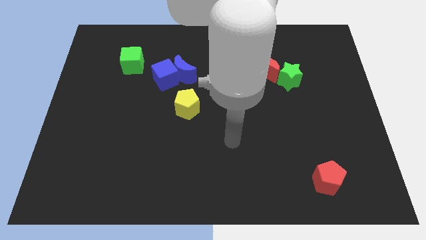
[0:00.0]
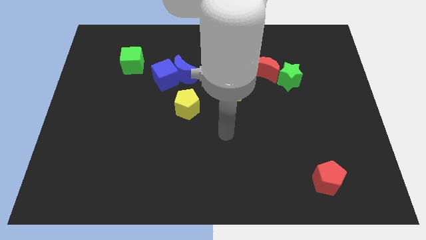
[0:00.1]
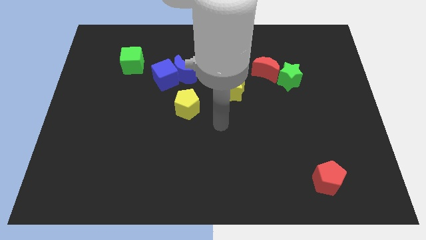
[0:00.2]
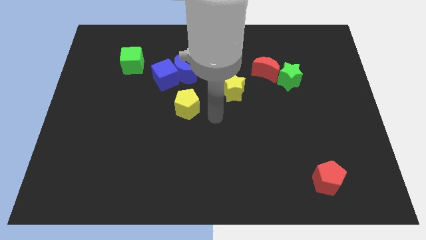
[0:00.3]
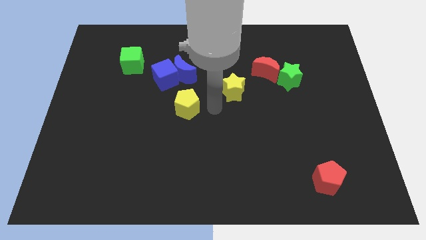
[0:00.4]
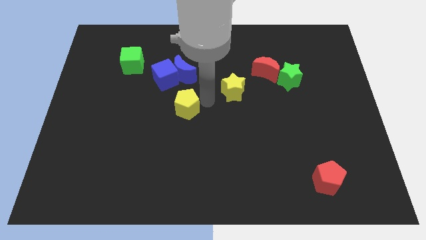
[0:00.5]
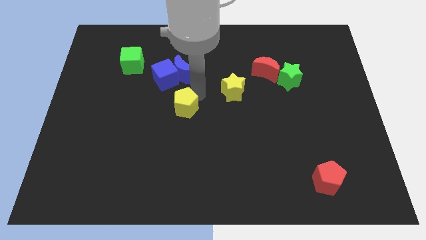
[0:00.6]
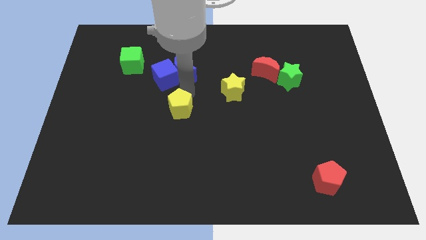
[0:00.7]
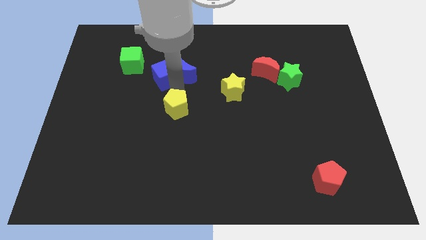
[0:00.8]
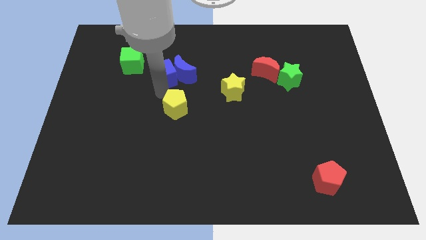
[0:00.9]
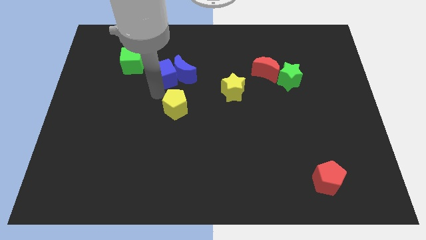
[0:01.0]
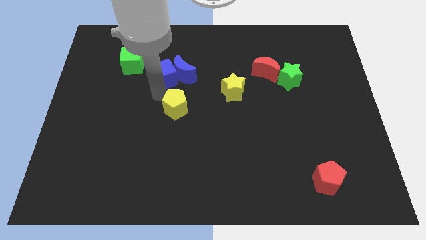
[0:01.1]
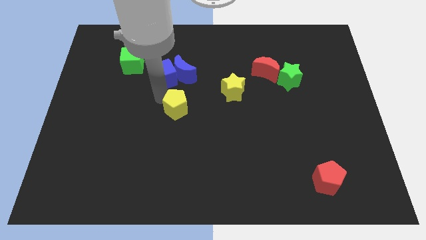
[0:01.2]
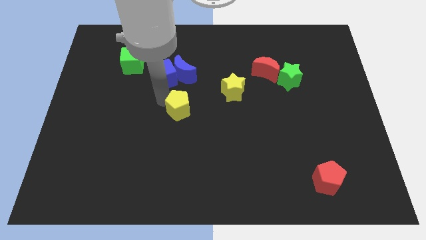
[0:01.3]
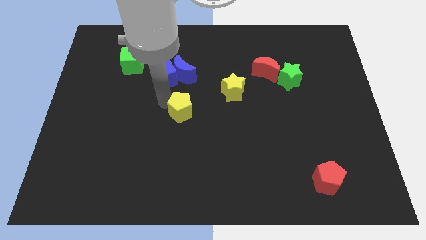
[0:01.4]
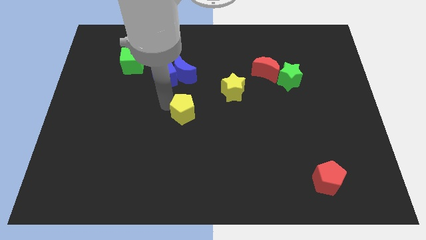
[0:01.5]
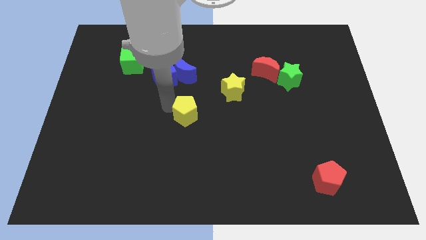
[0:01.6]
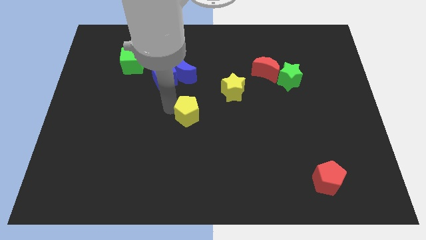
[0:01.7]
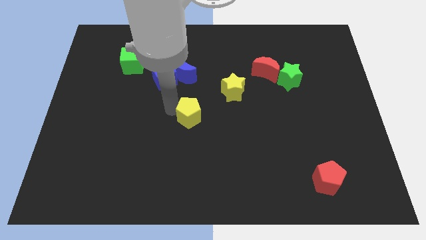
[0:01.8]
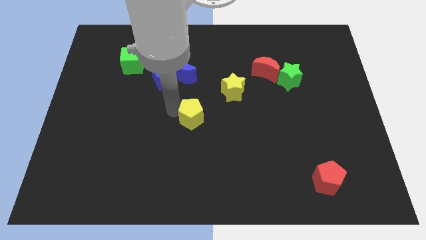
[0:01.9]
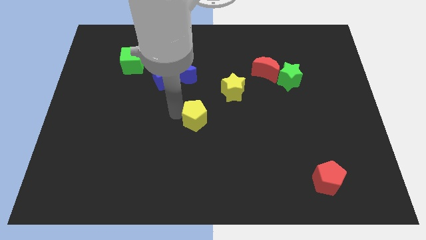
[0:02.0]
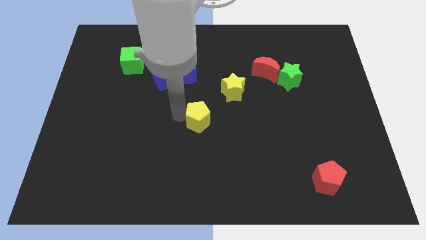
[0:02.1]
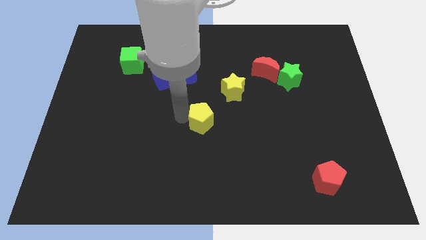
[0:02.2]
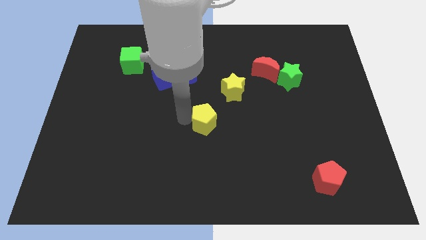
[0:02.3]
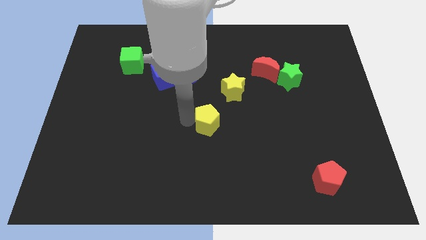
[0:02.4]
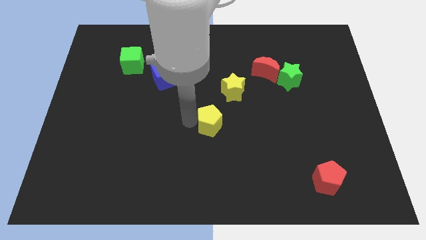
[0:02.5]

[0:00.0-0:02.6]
push the yellow pentagon slightly down and then to the right

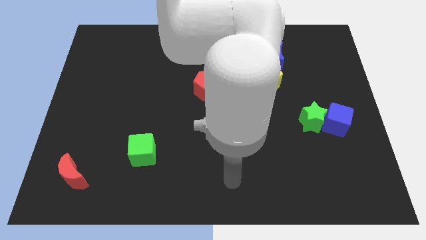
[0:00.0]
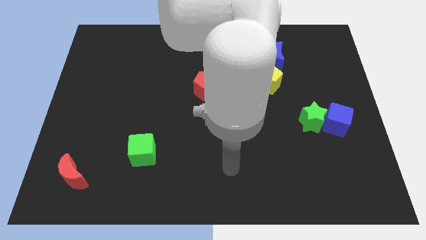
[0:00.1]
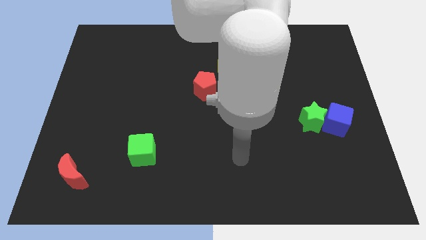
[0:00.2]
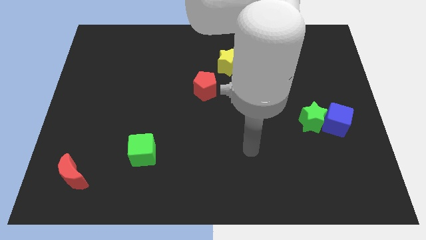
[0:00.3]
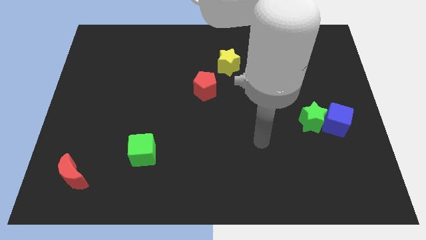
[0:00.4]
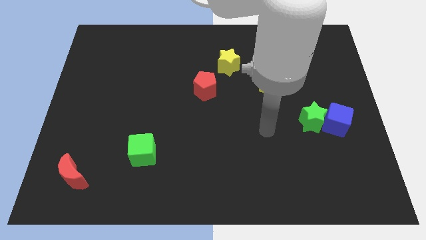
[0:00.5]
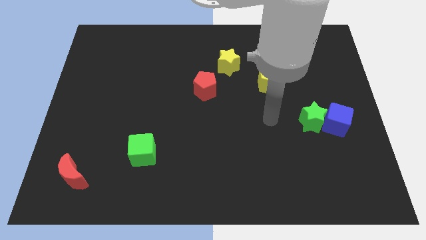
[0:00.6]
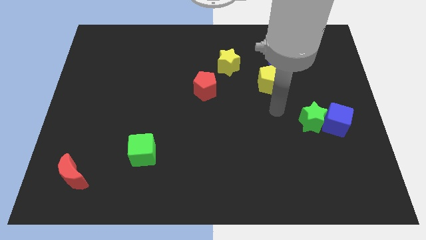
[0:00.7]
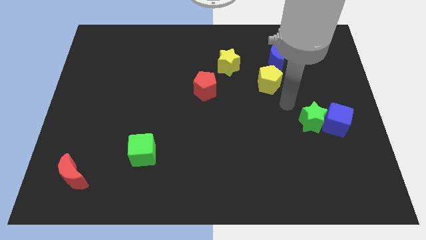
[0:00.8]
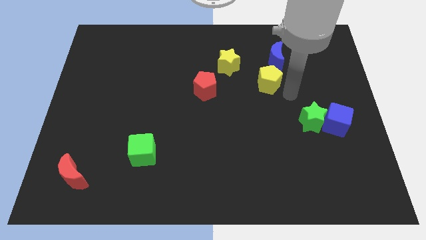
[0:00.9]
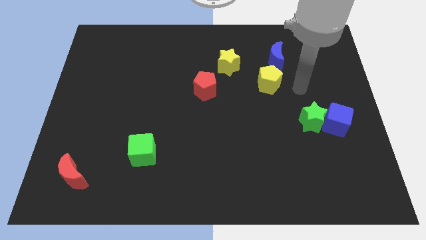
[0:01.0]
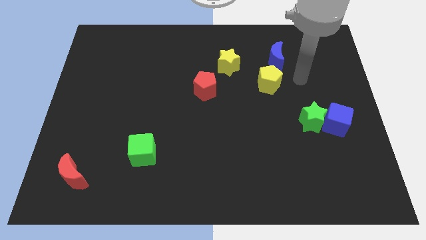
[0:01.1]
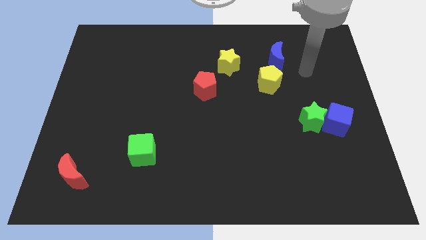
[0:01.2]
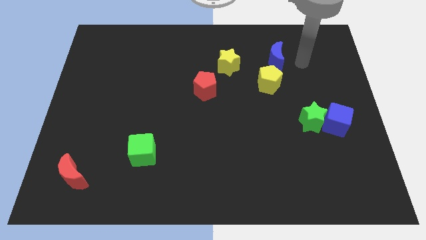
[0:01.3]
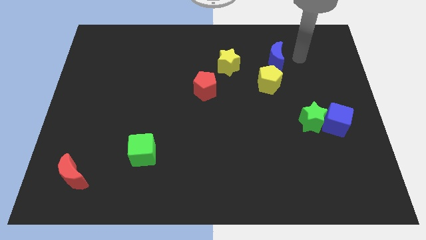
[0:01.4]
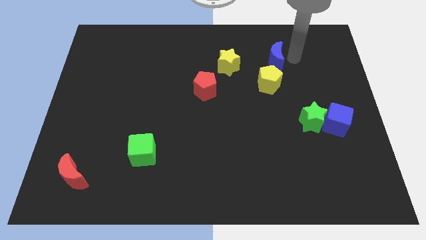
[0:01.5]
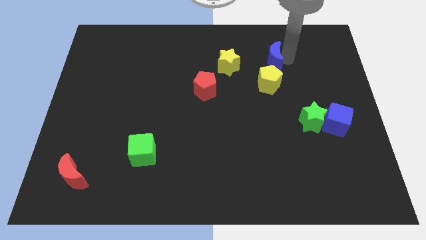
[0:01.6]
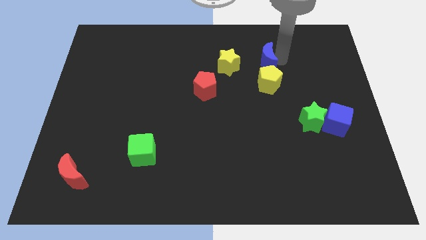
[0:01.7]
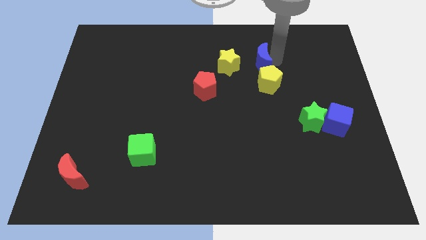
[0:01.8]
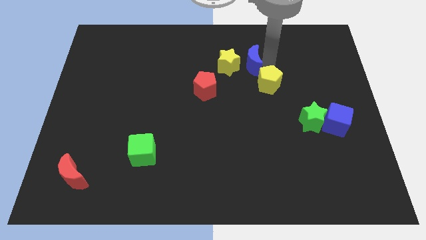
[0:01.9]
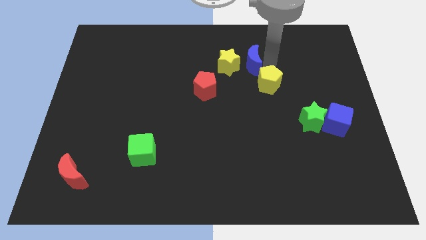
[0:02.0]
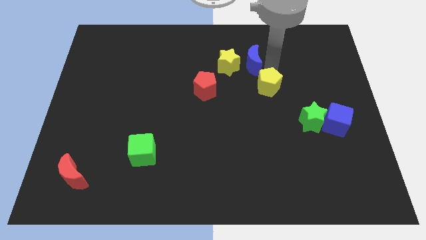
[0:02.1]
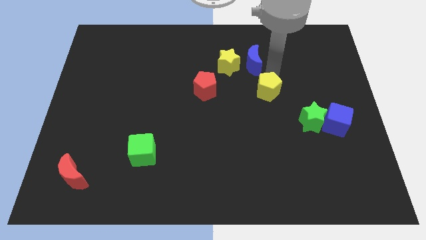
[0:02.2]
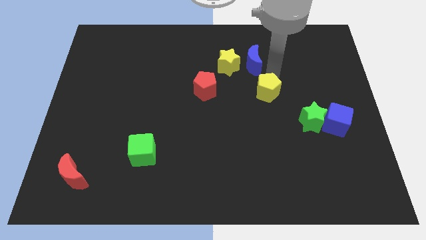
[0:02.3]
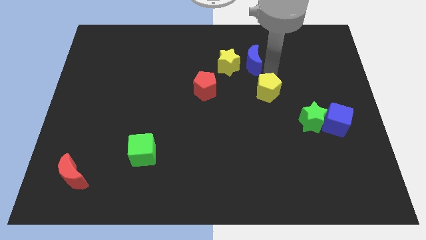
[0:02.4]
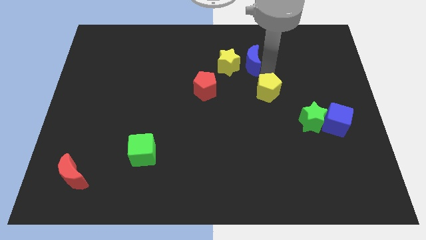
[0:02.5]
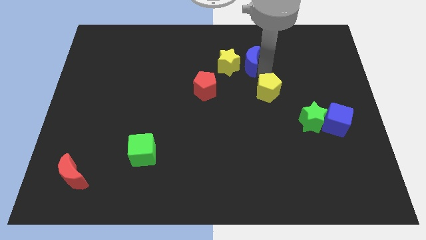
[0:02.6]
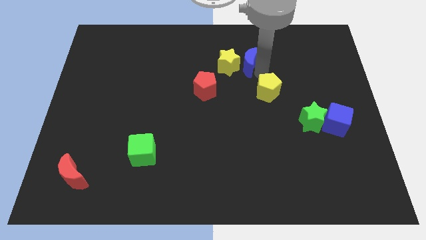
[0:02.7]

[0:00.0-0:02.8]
slightly move the blue moon left

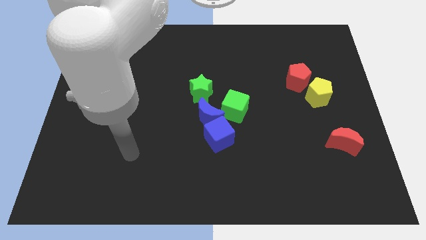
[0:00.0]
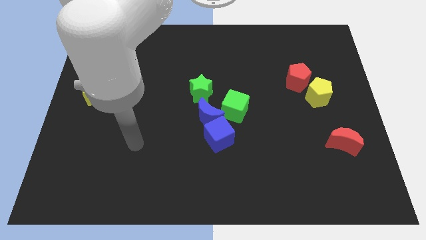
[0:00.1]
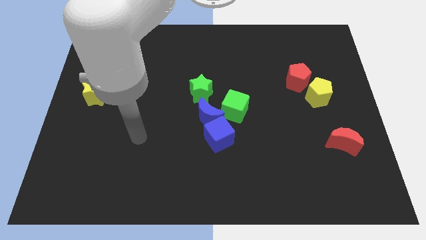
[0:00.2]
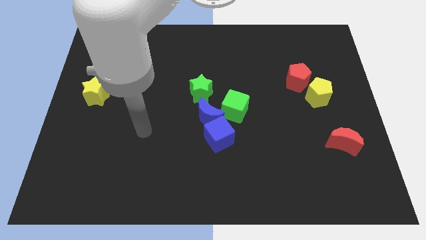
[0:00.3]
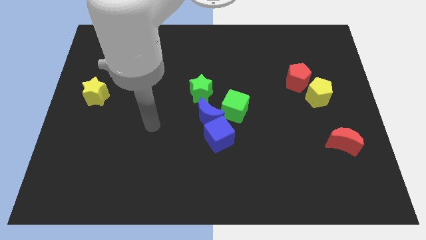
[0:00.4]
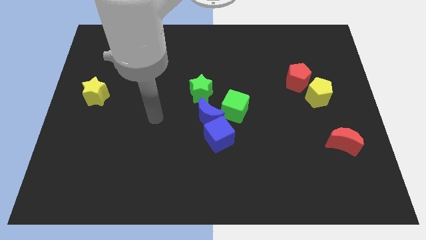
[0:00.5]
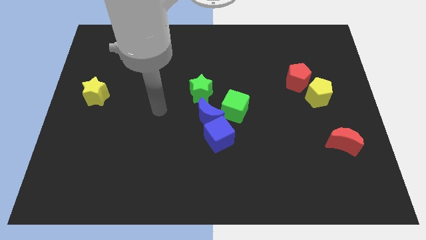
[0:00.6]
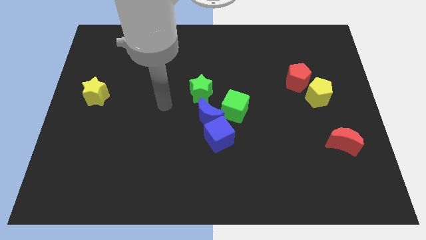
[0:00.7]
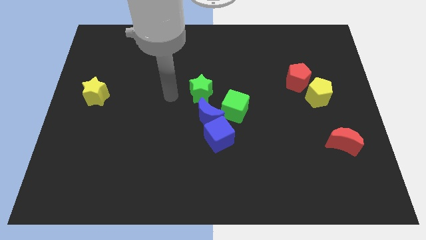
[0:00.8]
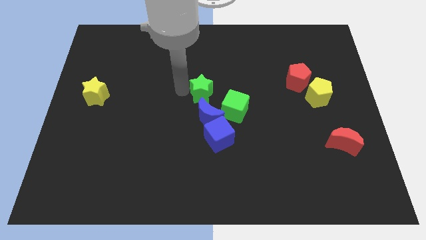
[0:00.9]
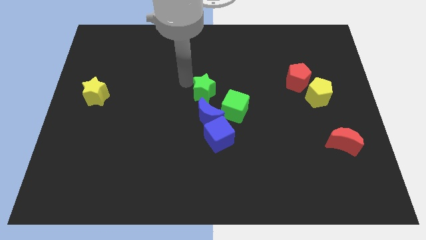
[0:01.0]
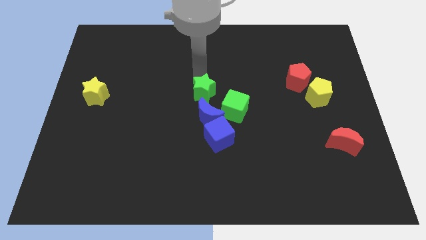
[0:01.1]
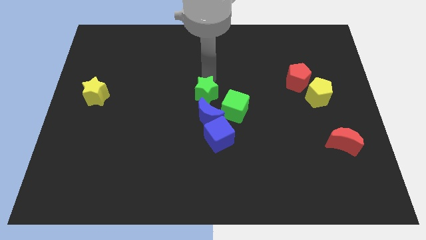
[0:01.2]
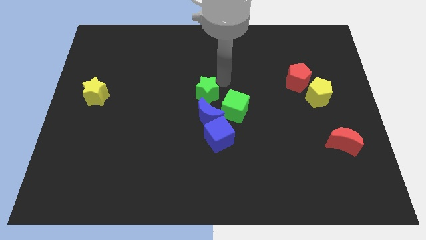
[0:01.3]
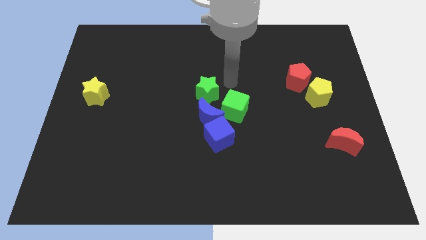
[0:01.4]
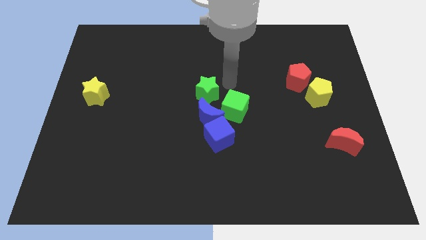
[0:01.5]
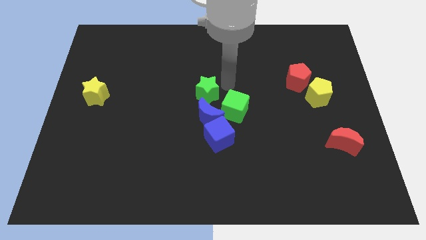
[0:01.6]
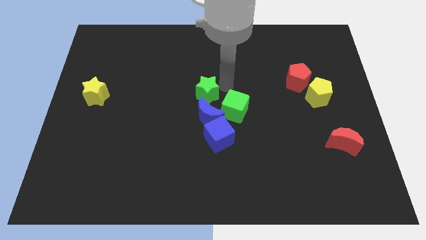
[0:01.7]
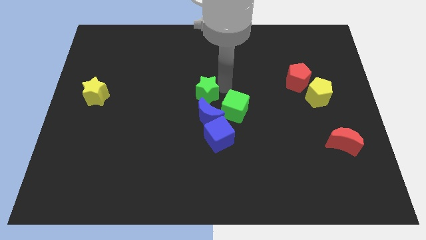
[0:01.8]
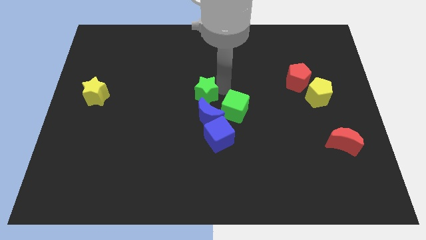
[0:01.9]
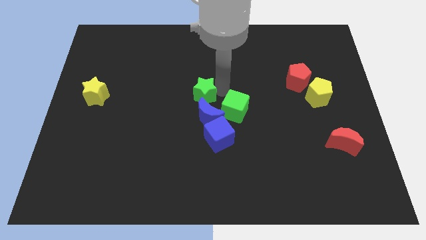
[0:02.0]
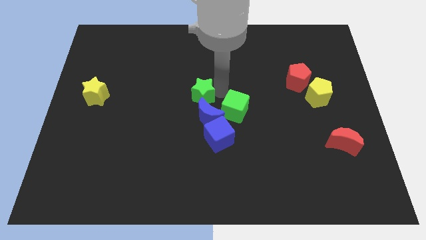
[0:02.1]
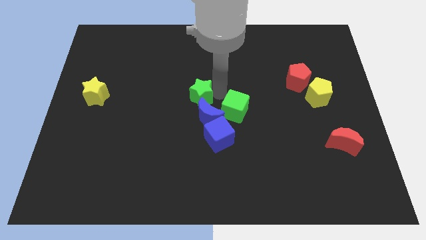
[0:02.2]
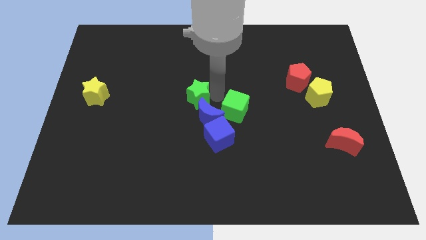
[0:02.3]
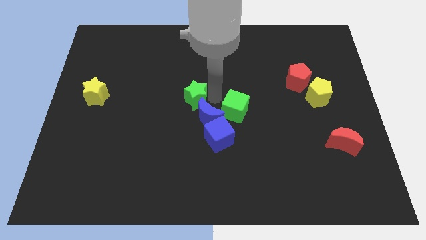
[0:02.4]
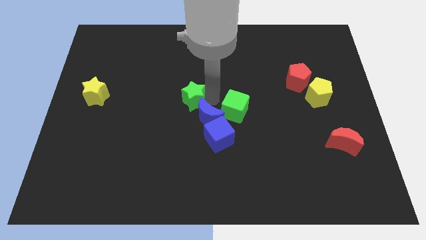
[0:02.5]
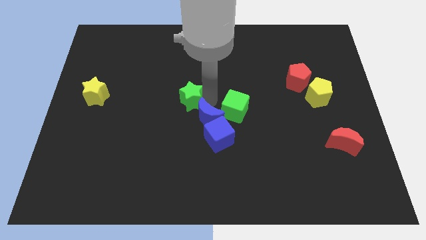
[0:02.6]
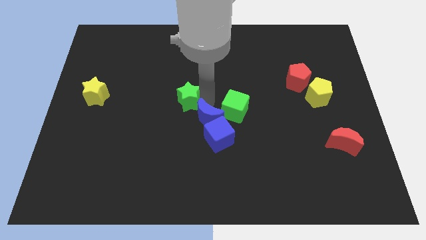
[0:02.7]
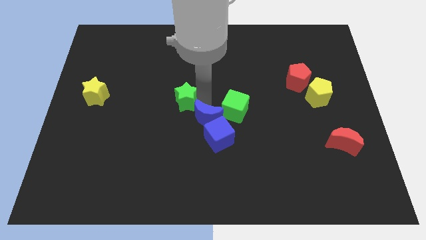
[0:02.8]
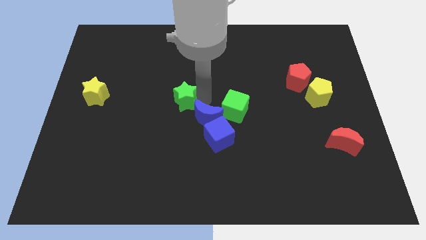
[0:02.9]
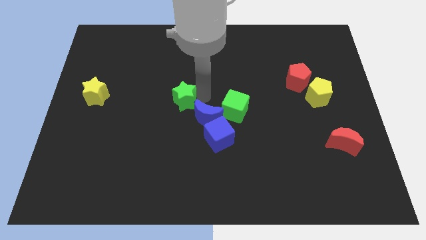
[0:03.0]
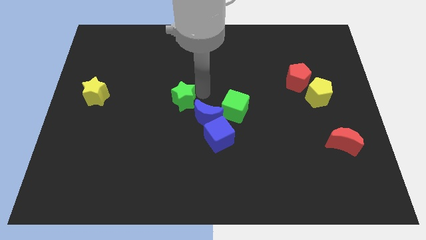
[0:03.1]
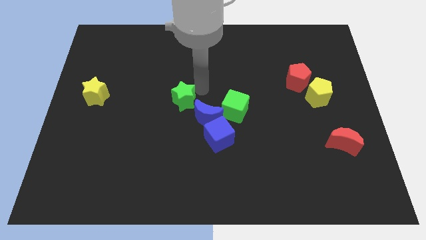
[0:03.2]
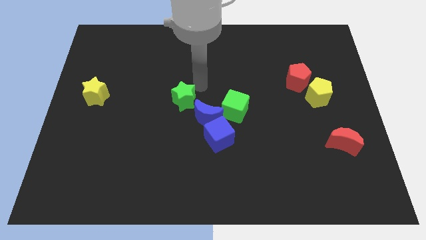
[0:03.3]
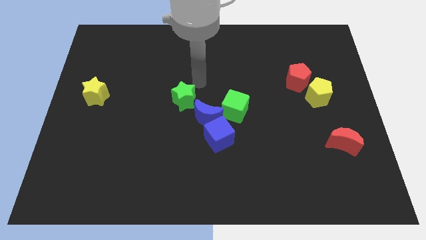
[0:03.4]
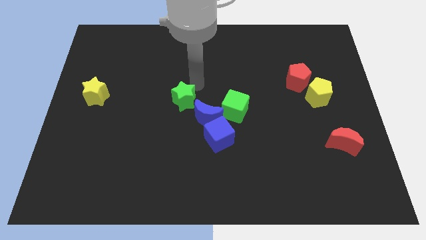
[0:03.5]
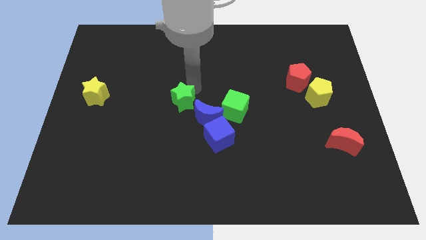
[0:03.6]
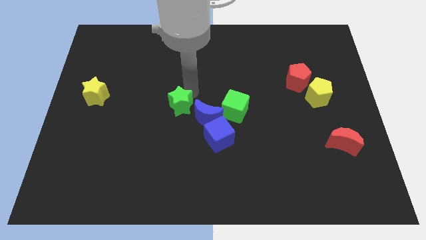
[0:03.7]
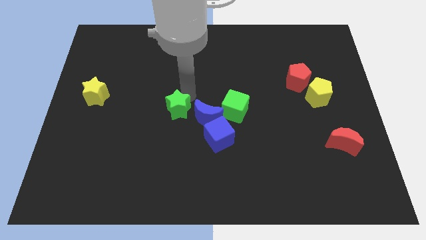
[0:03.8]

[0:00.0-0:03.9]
move the green star diagonally down and left a bit
